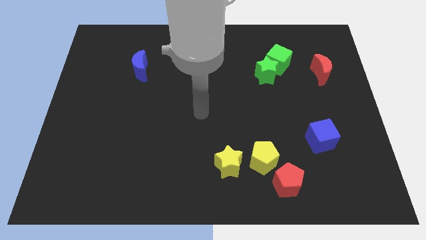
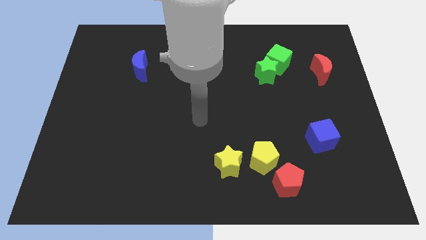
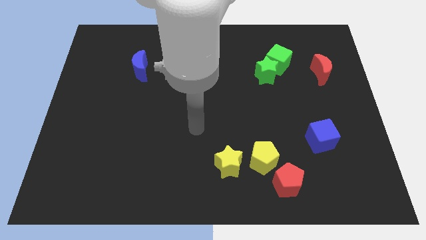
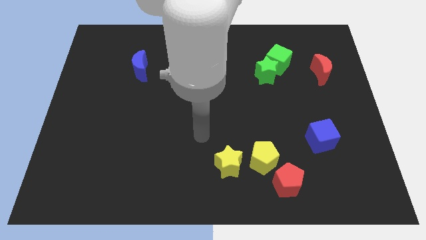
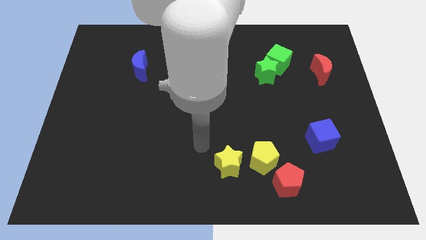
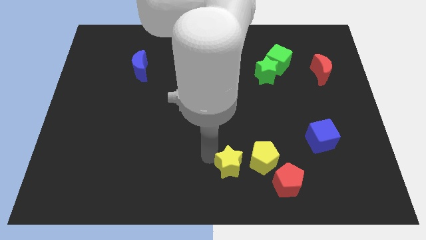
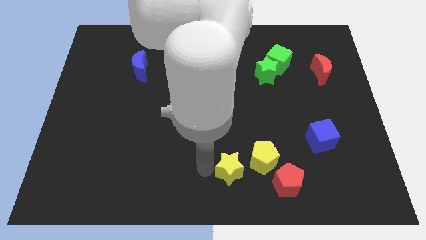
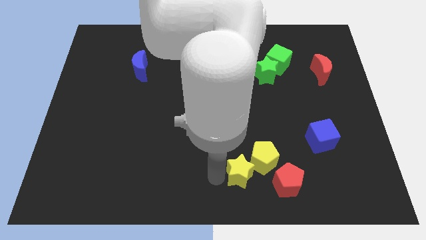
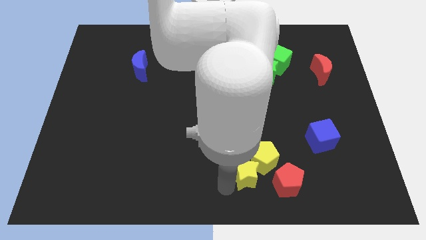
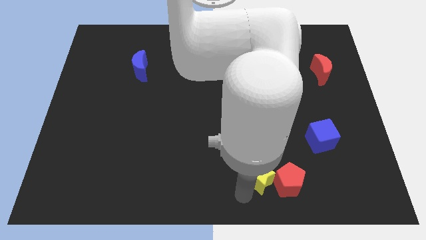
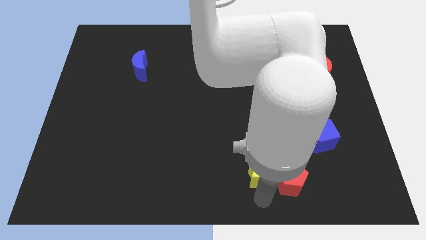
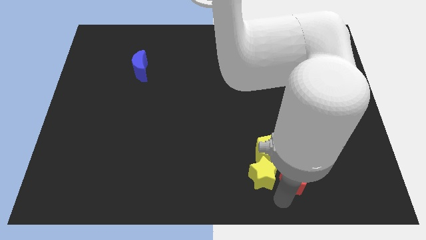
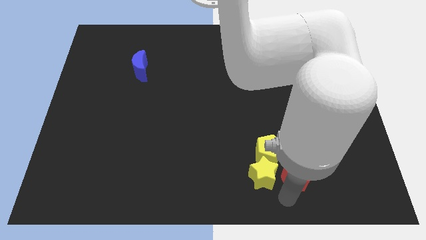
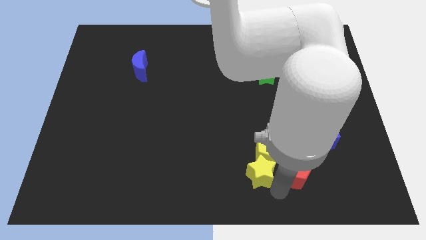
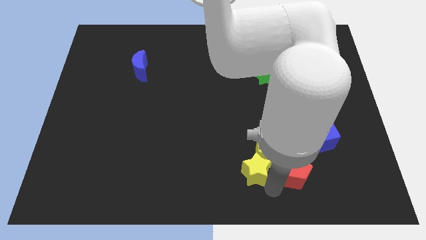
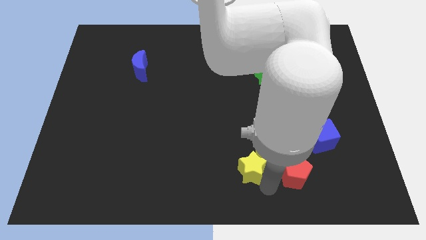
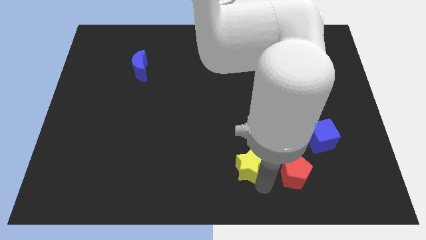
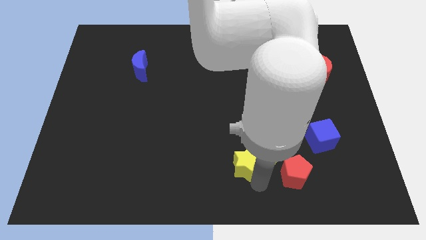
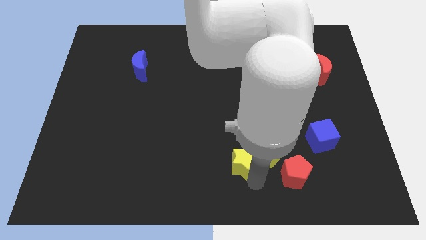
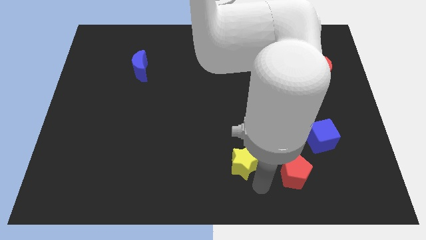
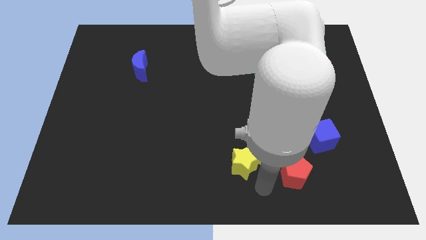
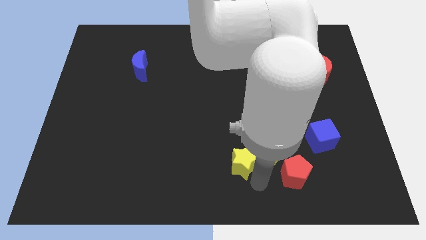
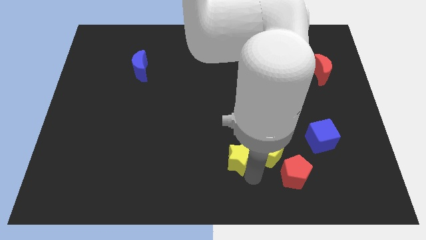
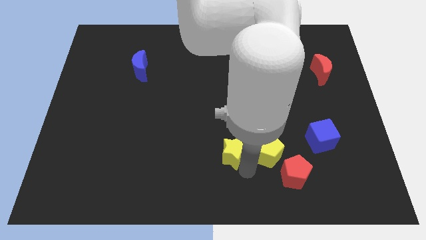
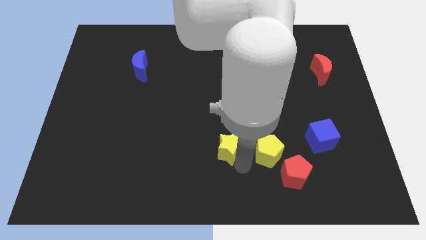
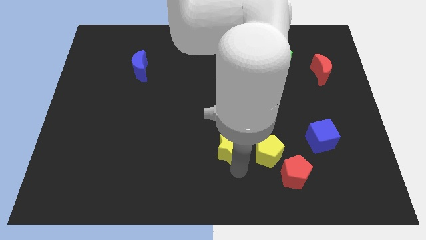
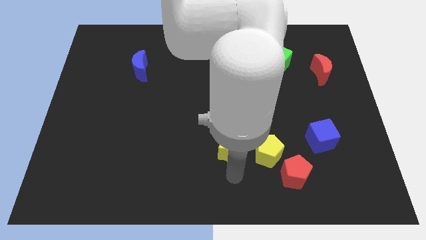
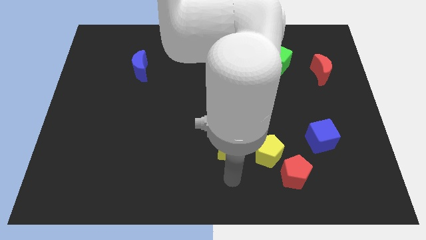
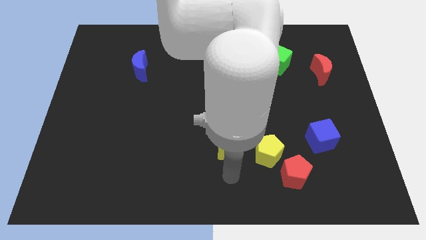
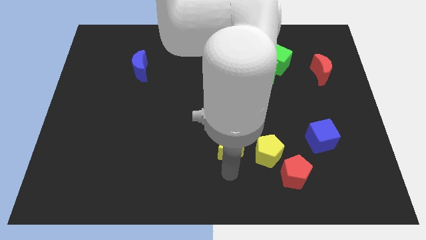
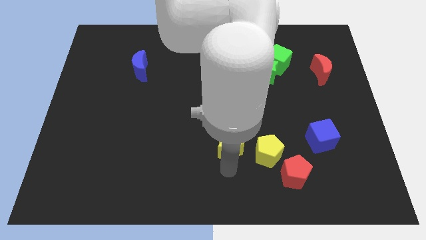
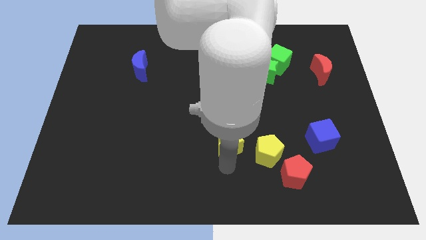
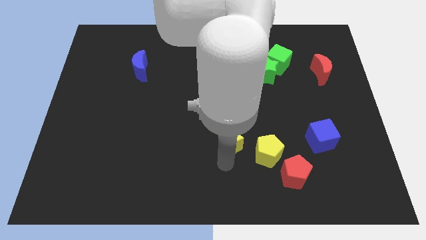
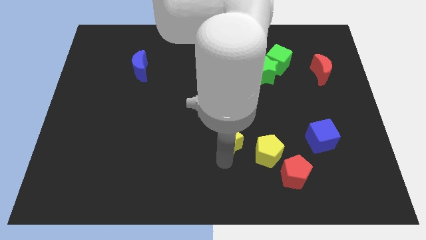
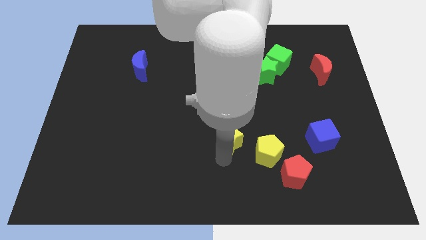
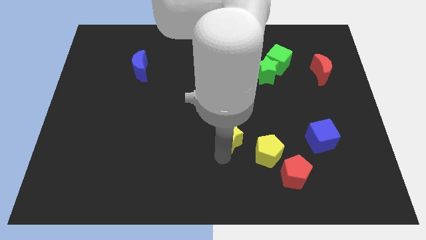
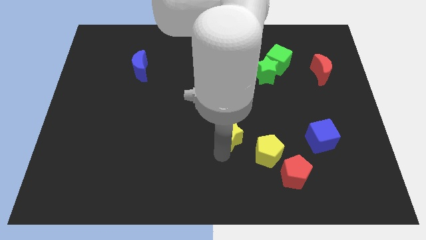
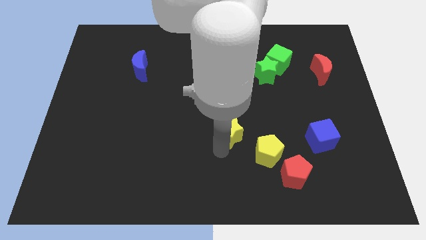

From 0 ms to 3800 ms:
move the yellow star a bit upwards

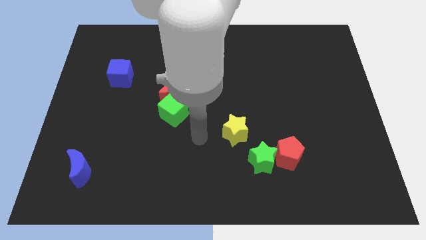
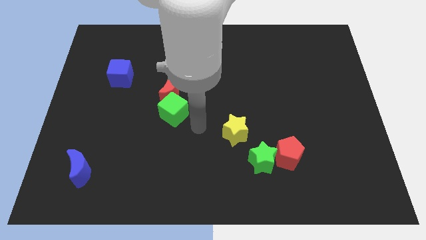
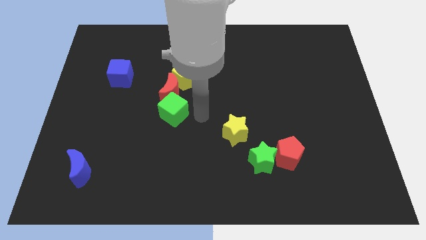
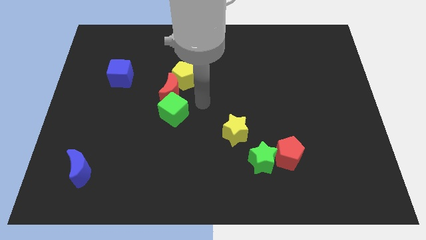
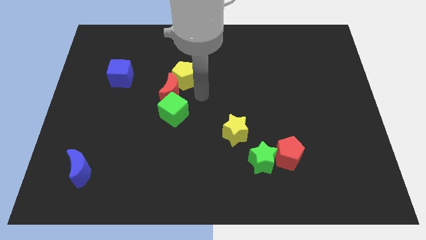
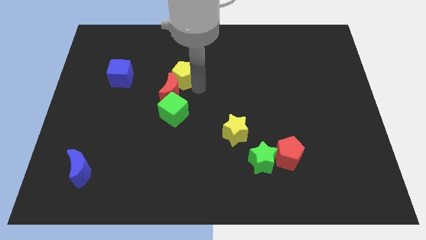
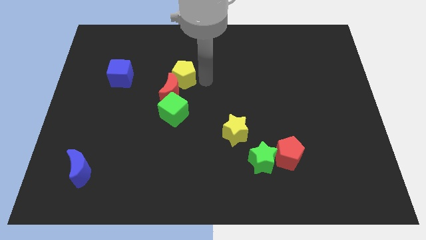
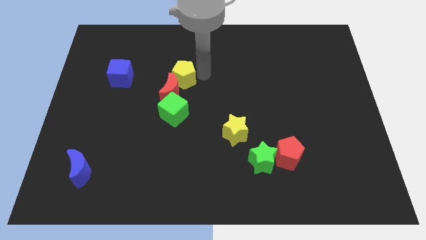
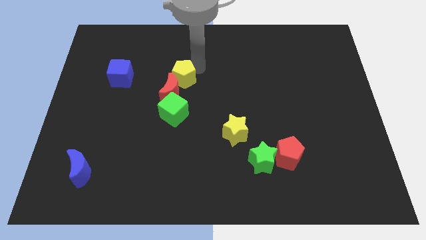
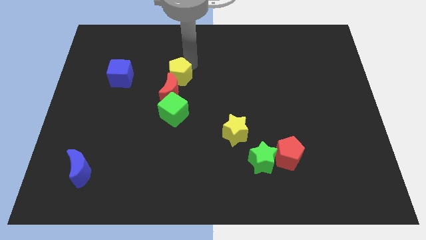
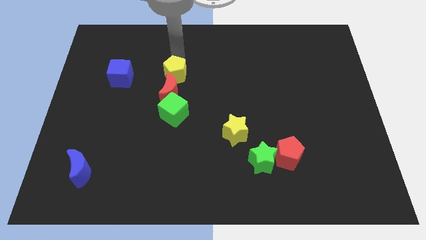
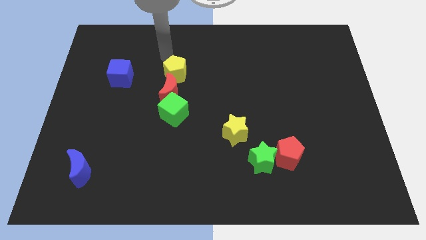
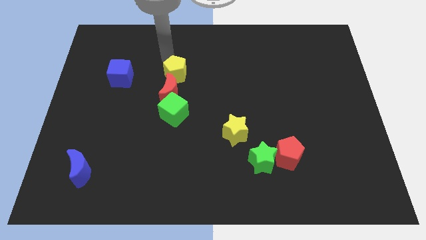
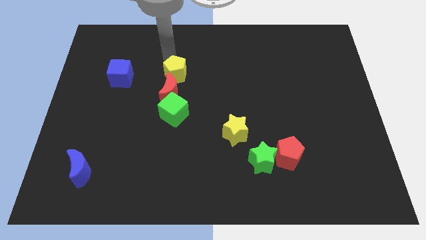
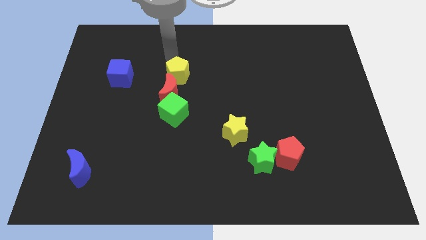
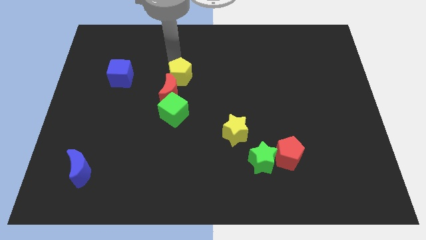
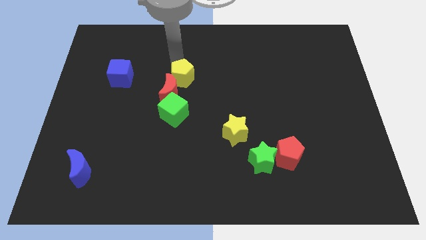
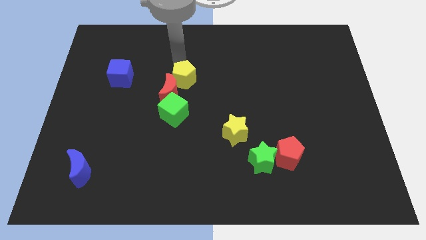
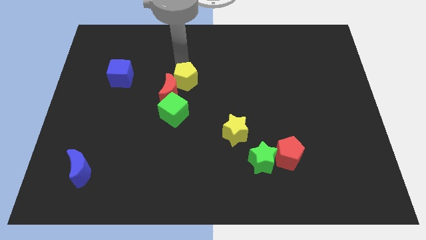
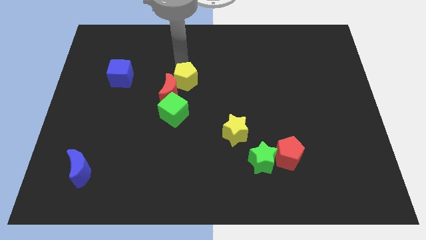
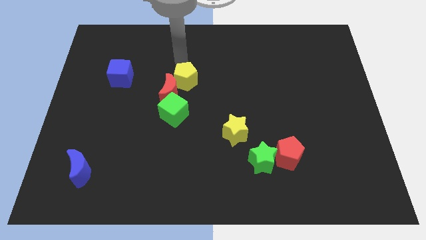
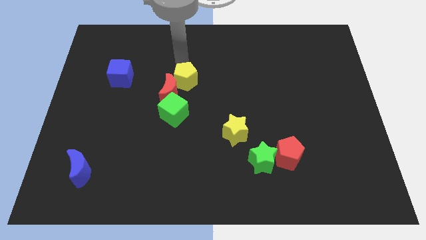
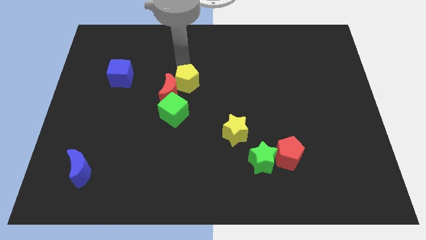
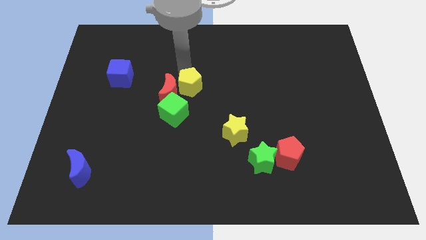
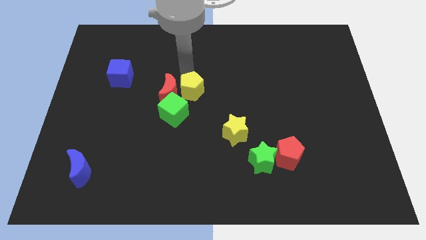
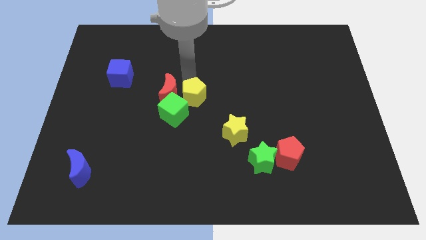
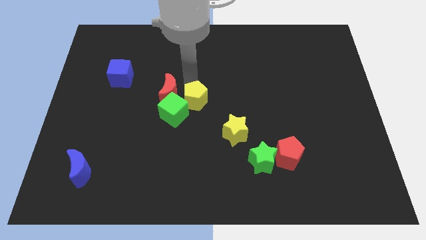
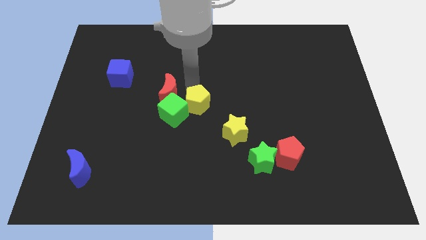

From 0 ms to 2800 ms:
slide the yellow pentagon downwards somewhat

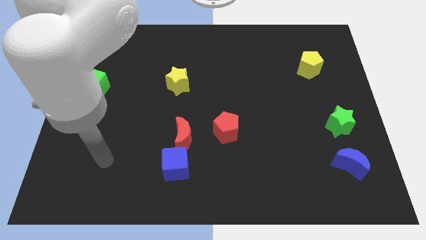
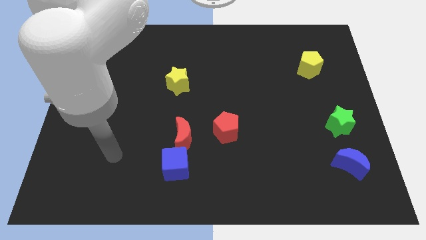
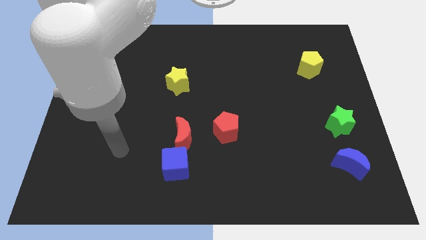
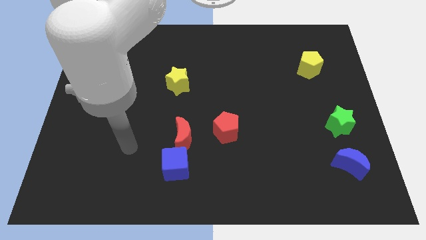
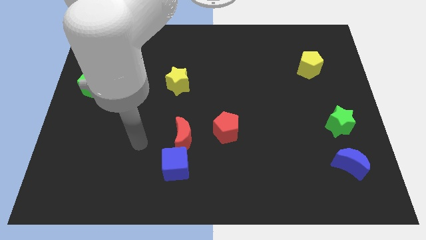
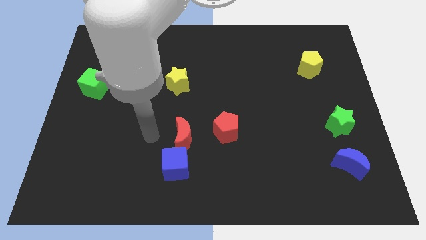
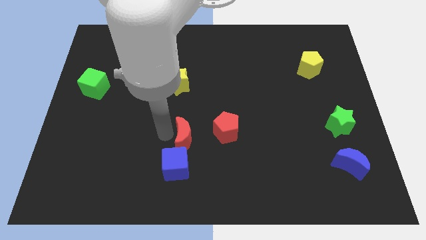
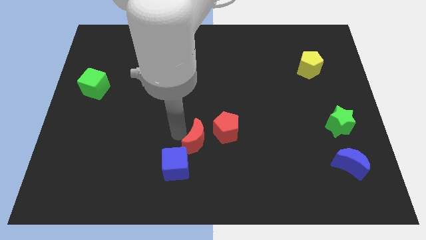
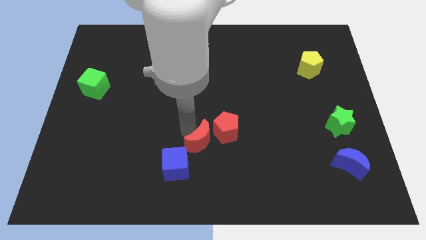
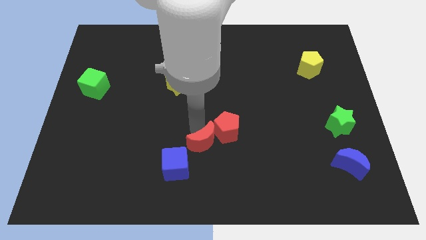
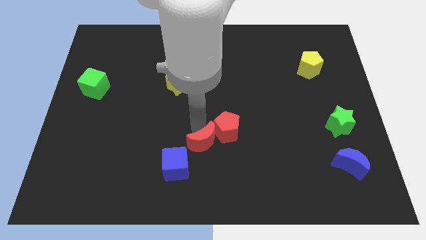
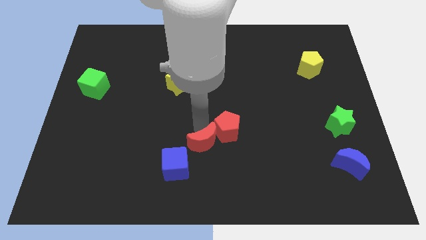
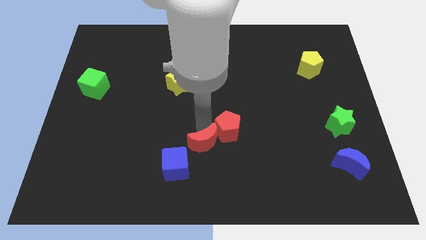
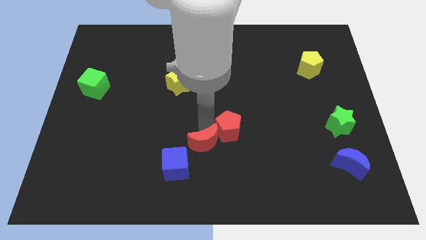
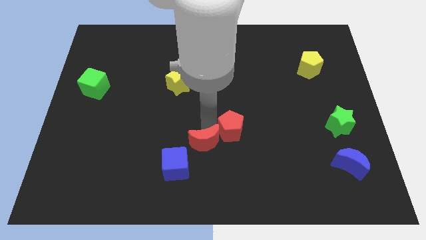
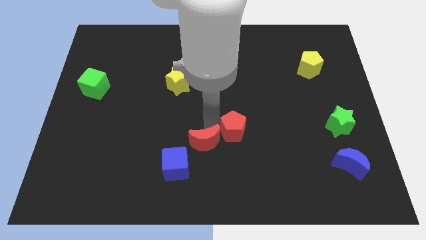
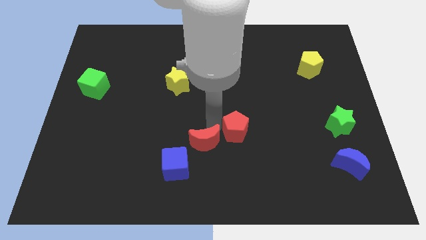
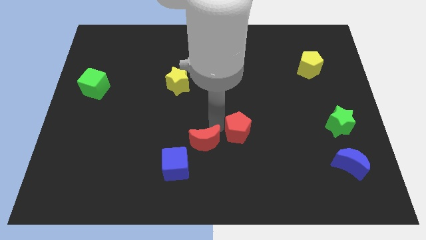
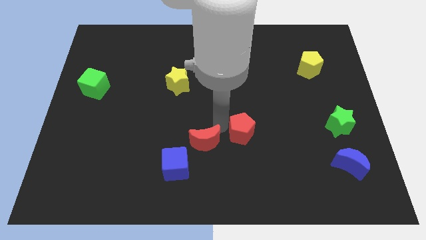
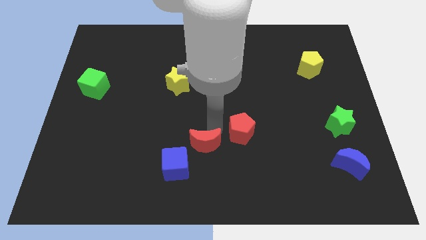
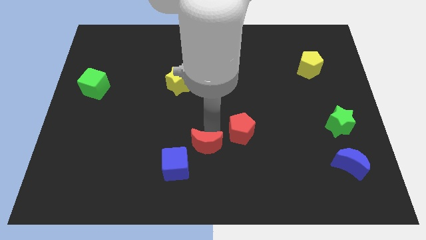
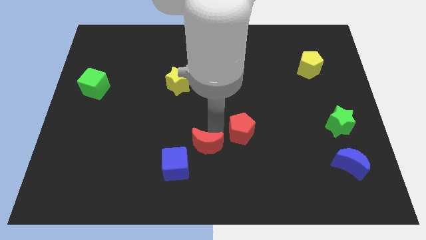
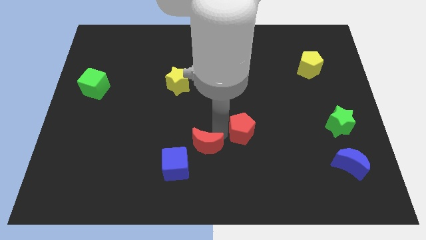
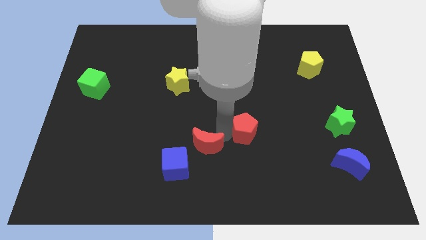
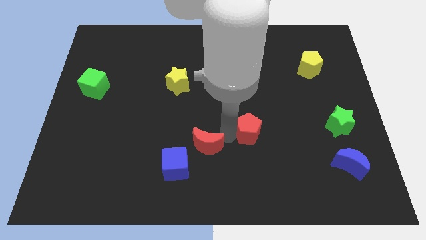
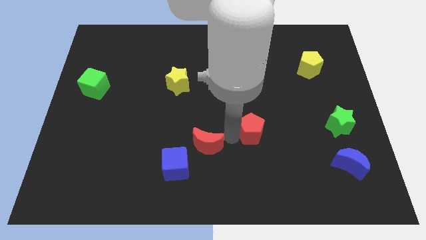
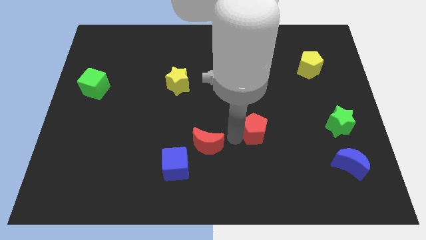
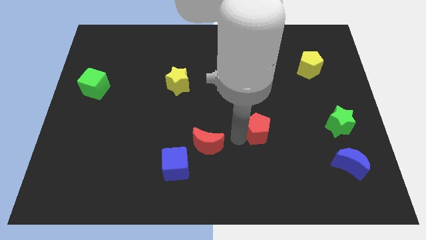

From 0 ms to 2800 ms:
slide the red pentagon to the right slightly
